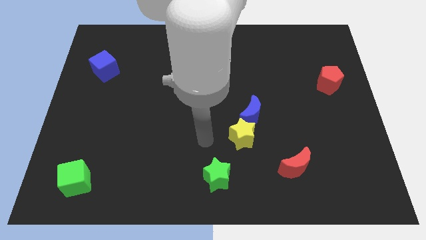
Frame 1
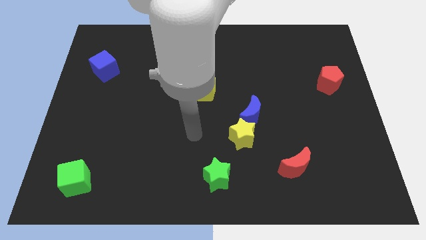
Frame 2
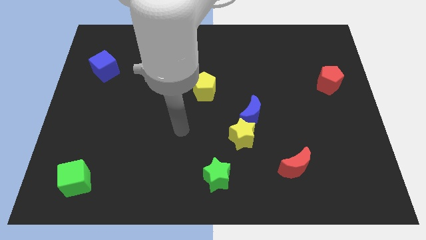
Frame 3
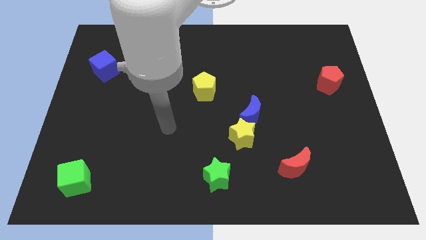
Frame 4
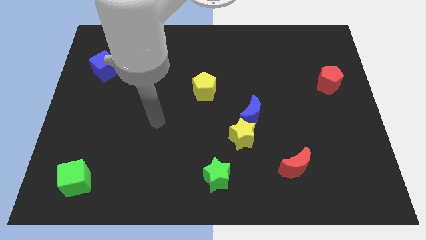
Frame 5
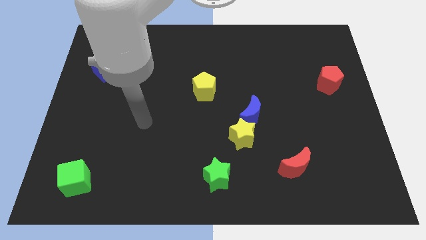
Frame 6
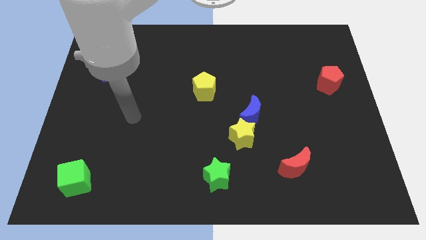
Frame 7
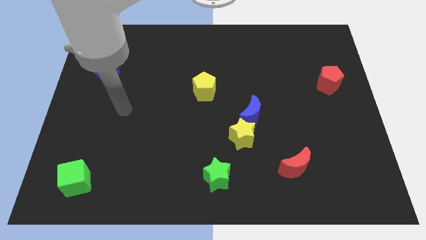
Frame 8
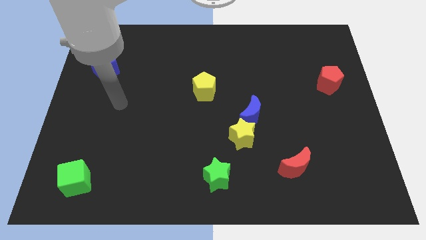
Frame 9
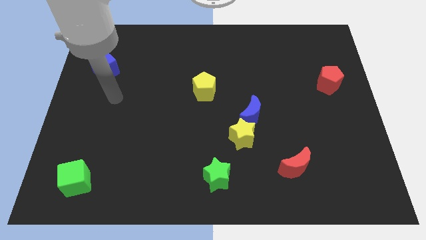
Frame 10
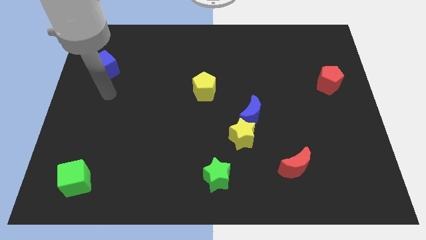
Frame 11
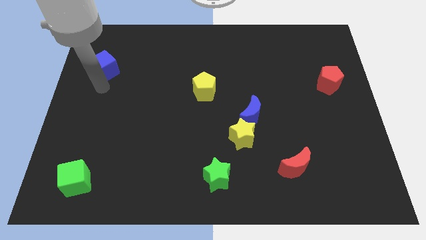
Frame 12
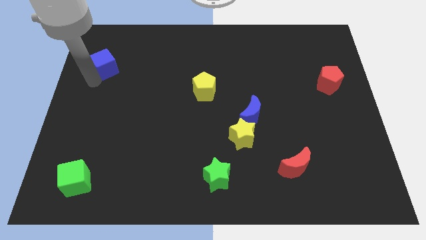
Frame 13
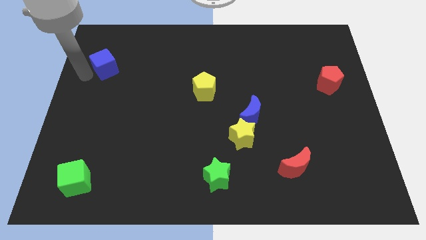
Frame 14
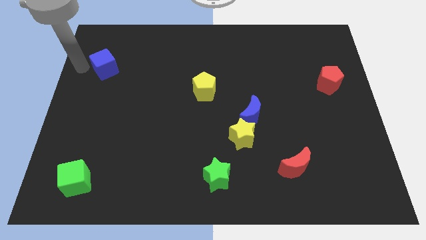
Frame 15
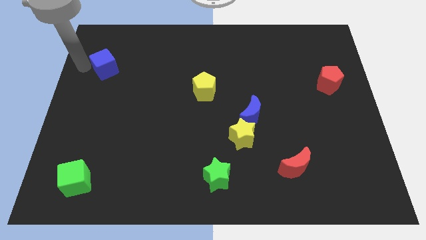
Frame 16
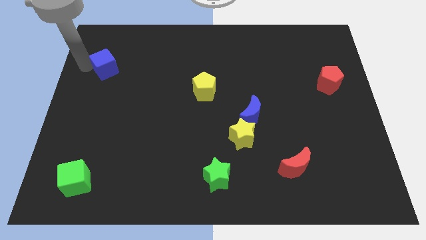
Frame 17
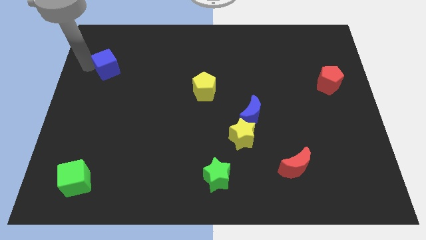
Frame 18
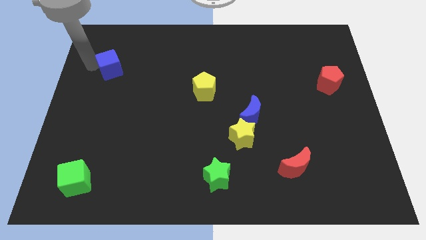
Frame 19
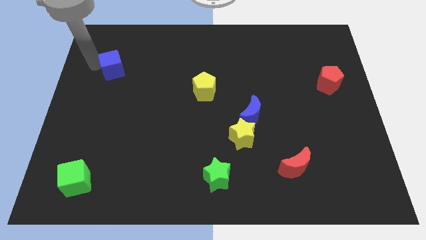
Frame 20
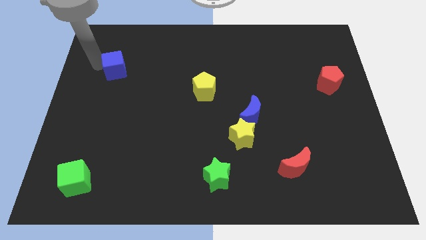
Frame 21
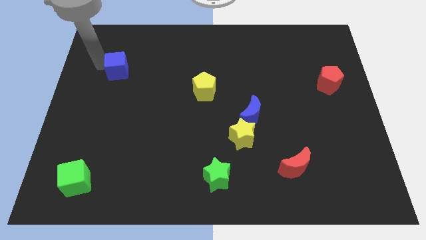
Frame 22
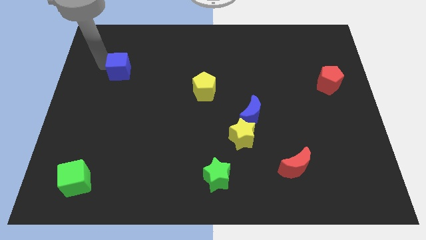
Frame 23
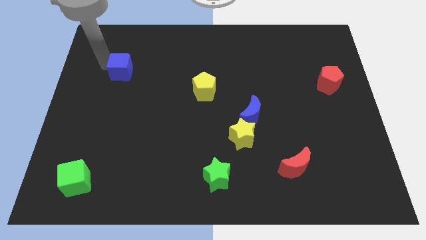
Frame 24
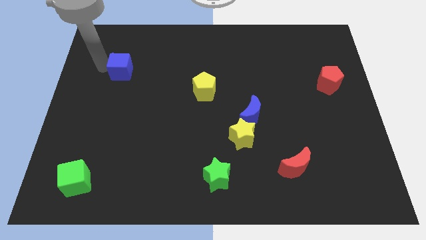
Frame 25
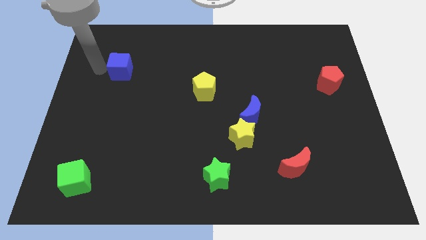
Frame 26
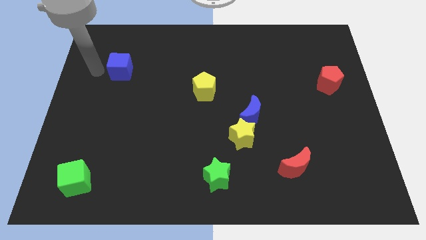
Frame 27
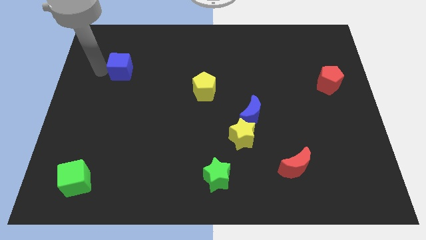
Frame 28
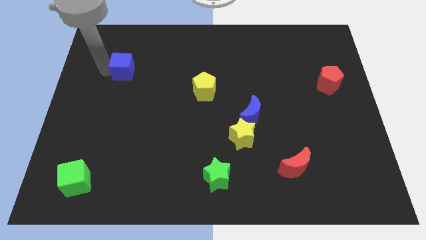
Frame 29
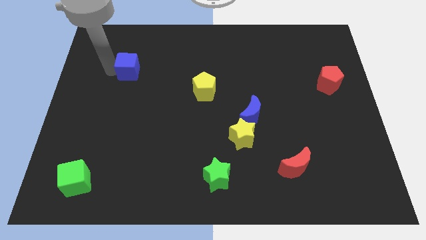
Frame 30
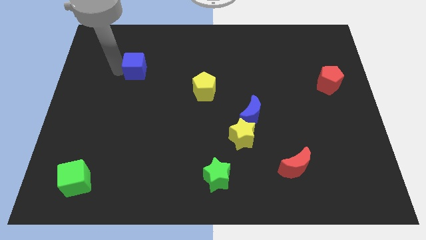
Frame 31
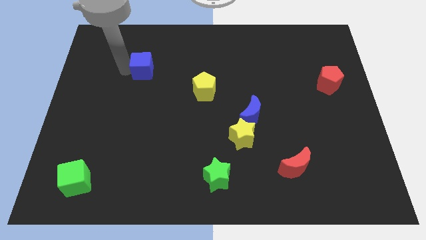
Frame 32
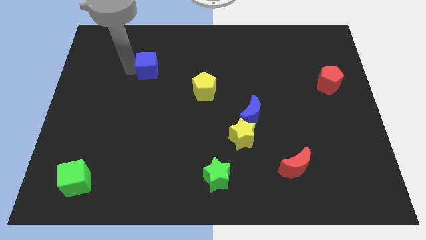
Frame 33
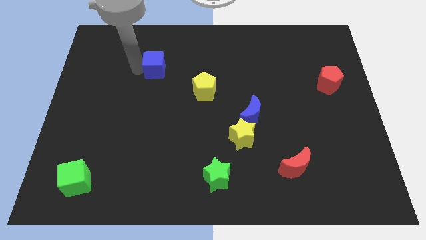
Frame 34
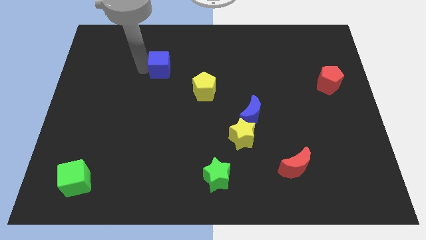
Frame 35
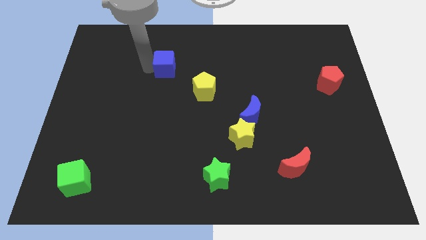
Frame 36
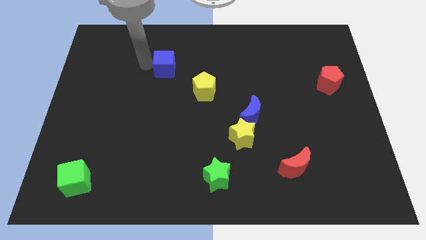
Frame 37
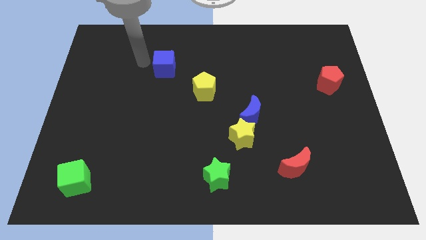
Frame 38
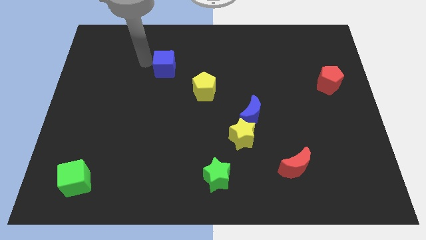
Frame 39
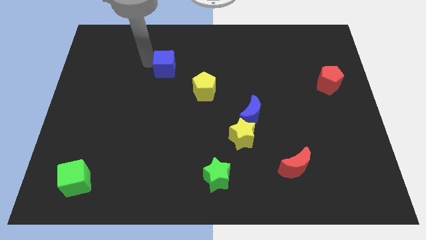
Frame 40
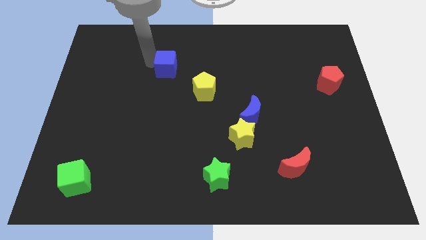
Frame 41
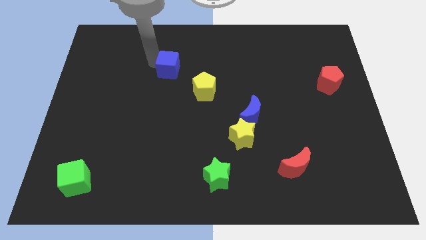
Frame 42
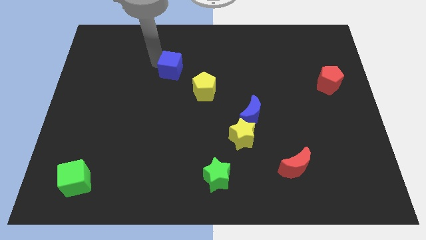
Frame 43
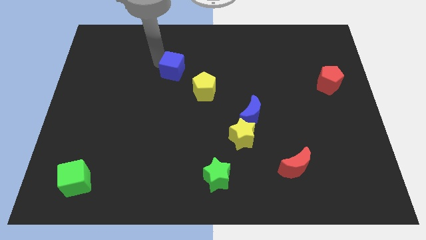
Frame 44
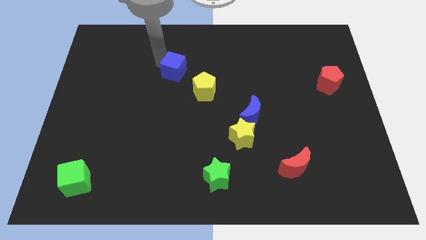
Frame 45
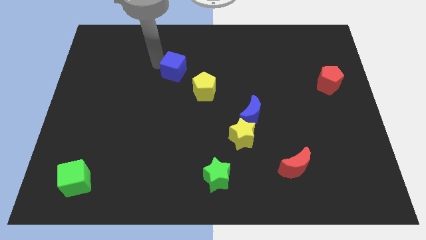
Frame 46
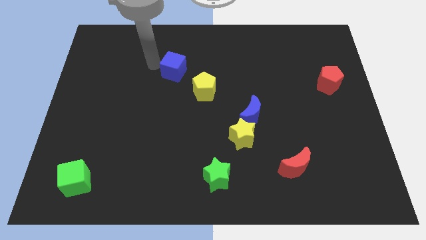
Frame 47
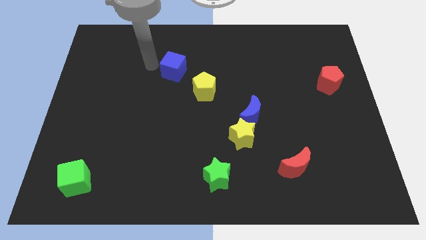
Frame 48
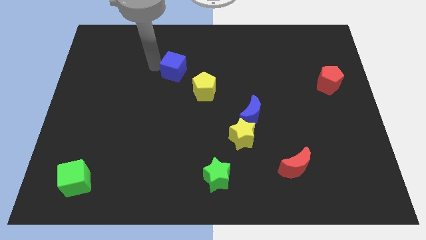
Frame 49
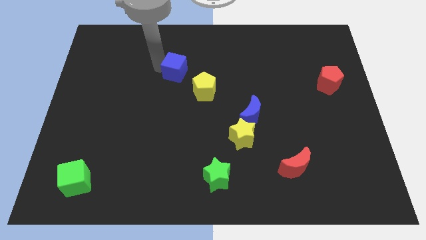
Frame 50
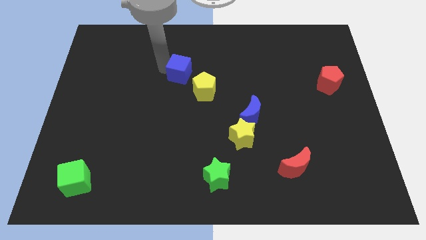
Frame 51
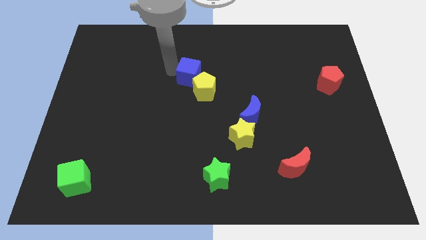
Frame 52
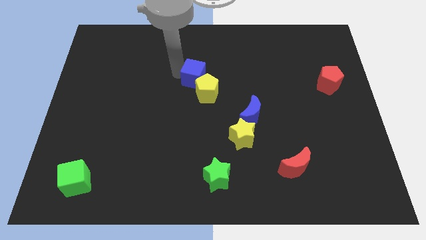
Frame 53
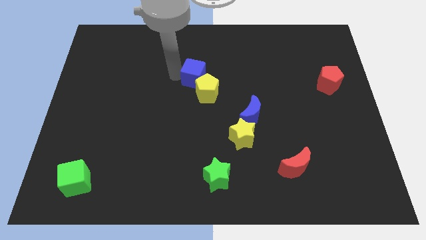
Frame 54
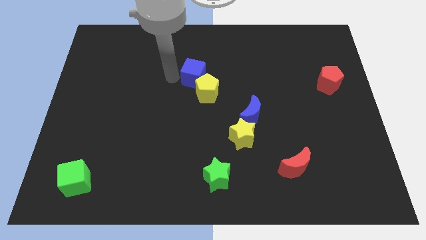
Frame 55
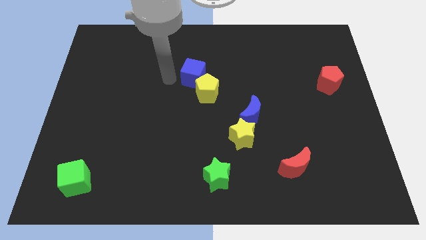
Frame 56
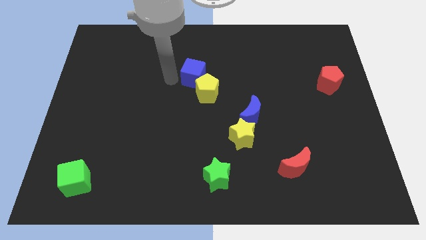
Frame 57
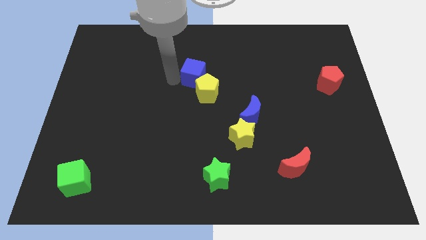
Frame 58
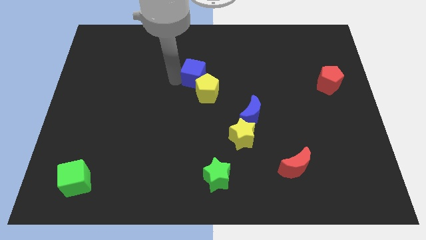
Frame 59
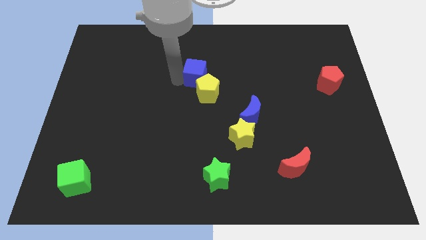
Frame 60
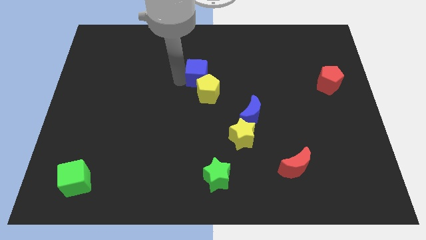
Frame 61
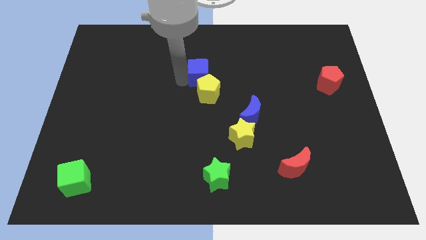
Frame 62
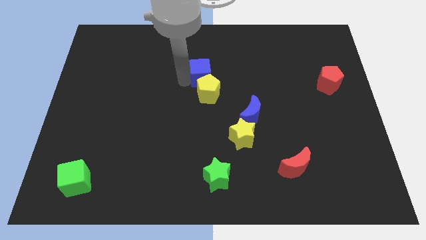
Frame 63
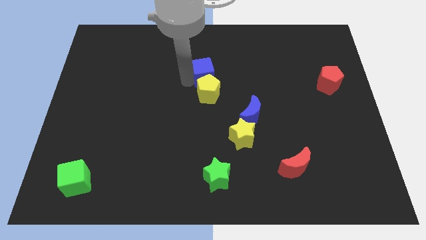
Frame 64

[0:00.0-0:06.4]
push the blue cube diagonally up and to the right of the yellow pentagon
